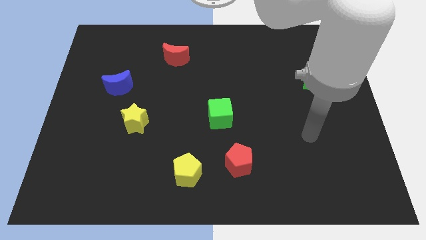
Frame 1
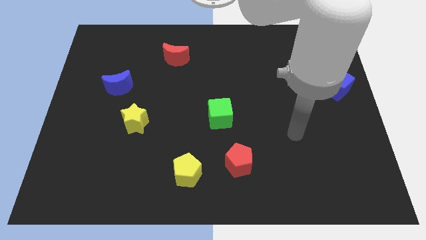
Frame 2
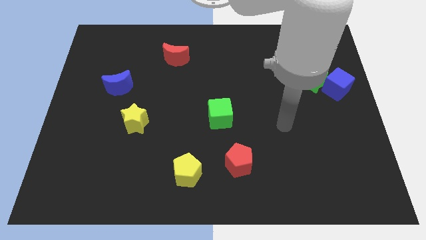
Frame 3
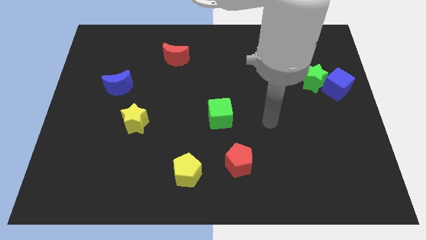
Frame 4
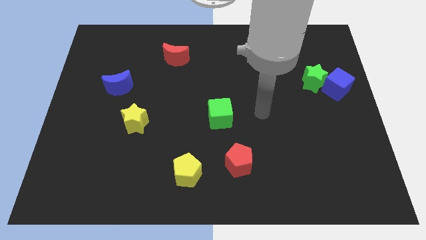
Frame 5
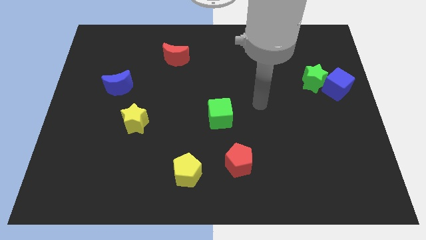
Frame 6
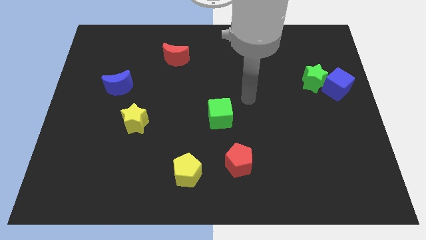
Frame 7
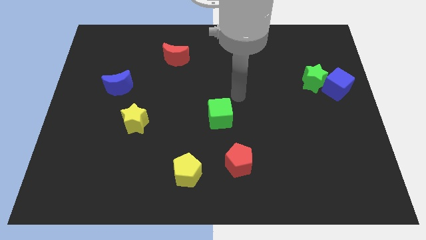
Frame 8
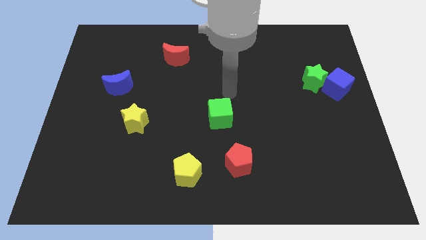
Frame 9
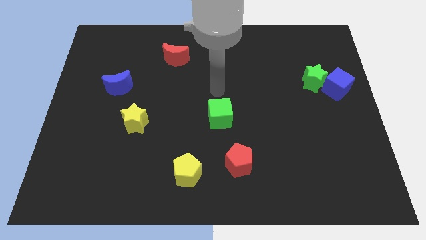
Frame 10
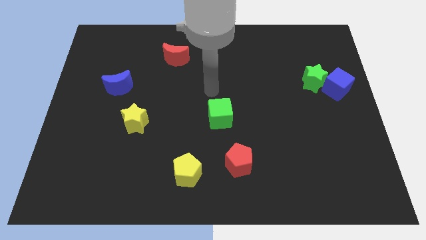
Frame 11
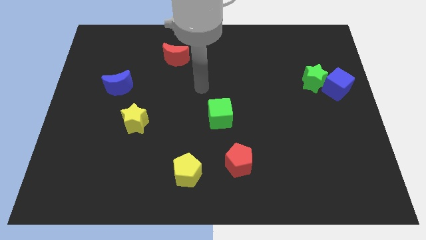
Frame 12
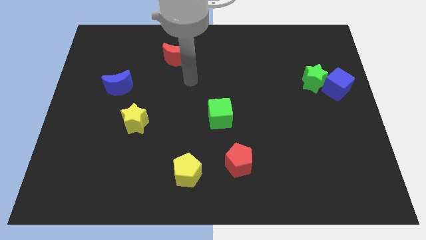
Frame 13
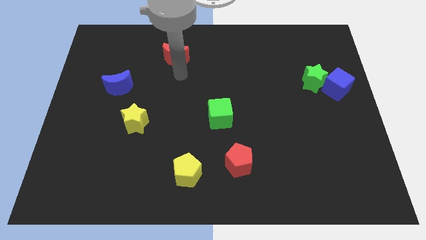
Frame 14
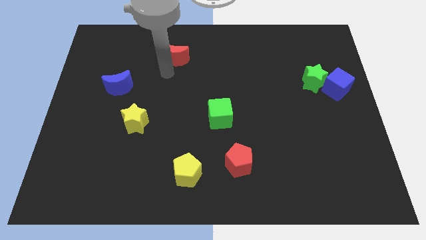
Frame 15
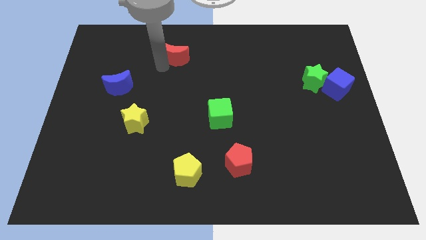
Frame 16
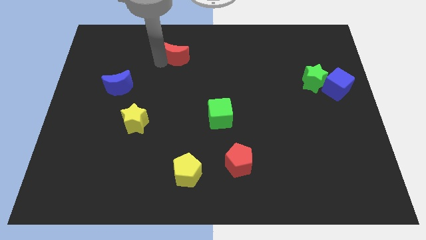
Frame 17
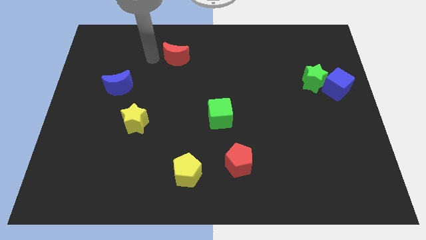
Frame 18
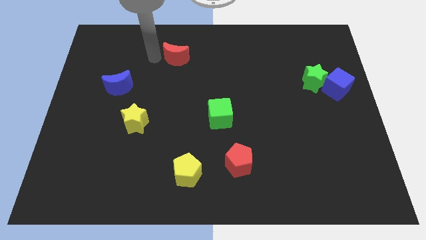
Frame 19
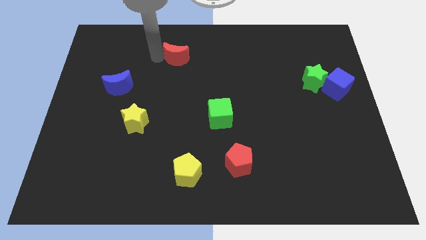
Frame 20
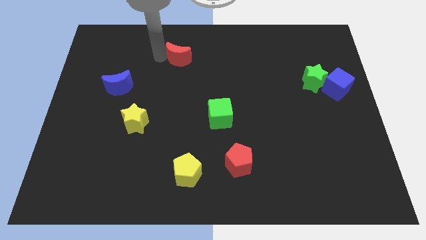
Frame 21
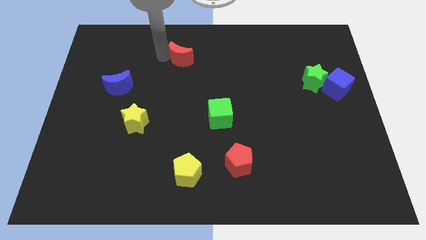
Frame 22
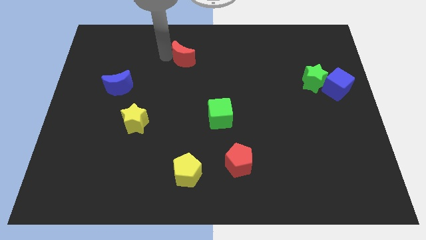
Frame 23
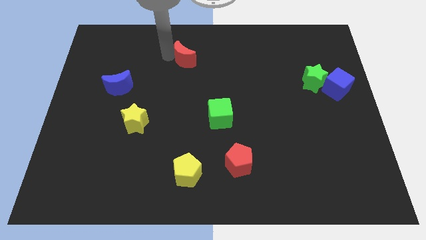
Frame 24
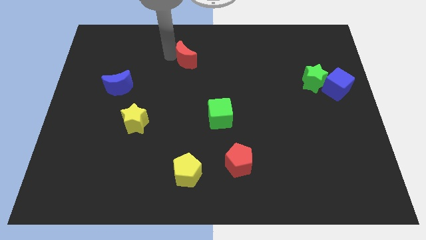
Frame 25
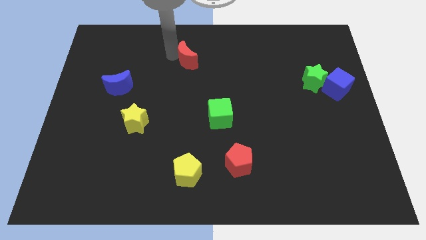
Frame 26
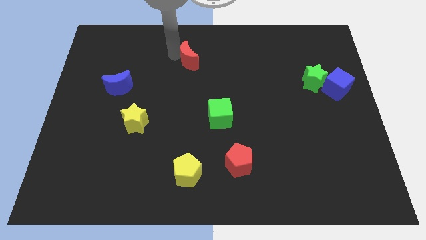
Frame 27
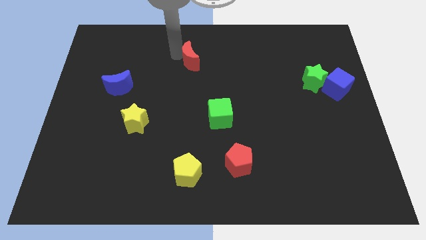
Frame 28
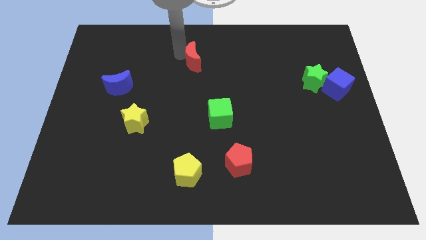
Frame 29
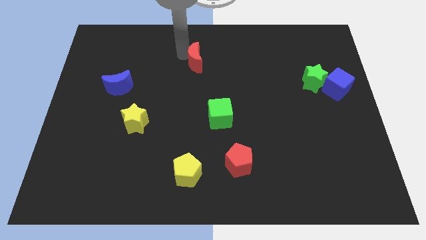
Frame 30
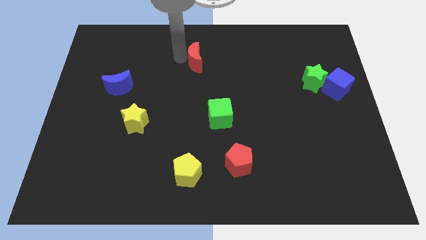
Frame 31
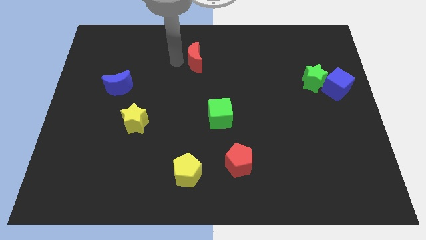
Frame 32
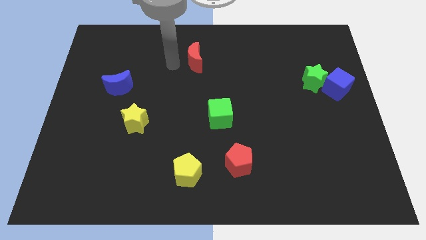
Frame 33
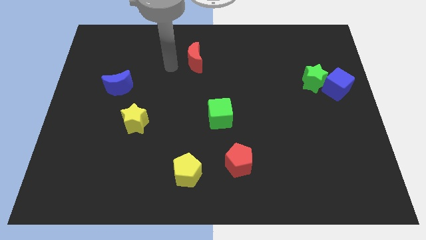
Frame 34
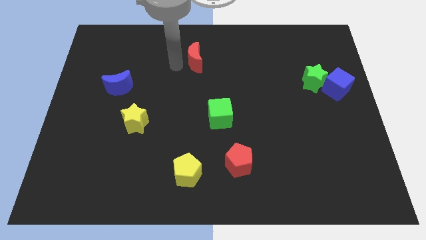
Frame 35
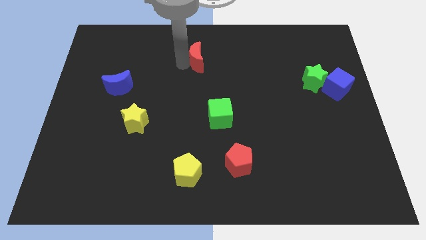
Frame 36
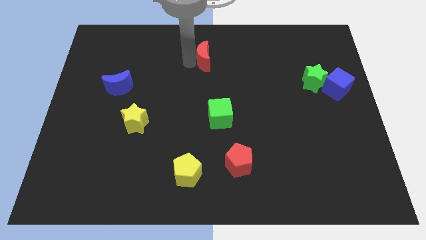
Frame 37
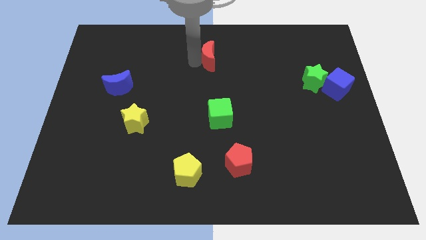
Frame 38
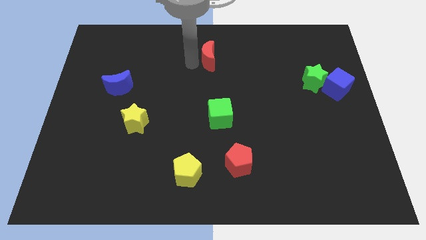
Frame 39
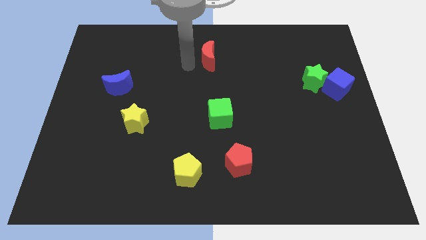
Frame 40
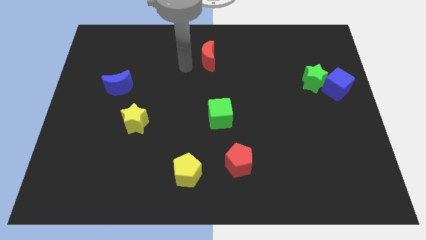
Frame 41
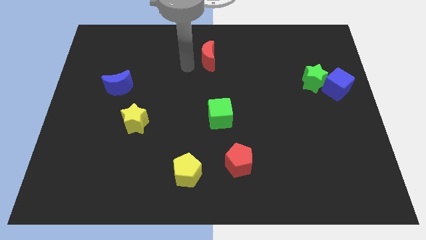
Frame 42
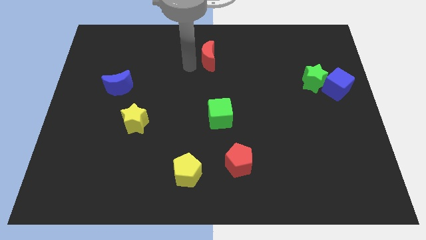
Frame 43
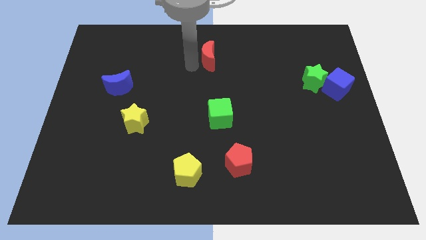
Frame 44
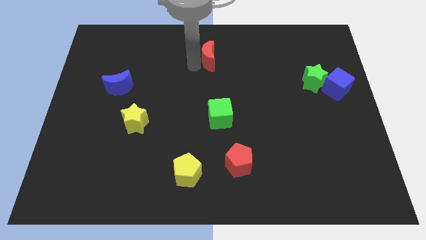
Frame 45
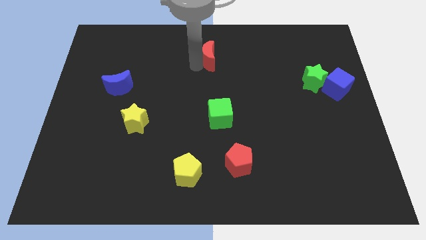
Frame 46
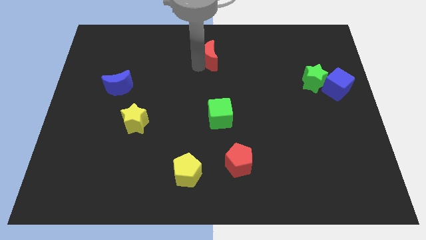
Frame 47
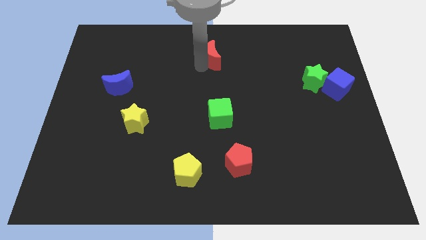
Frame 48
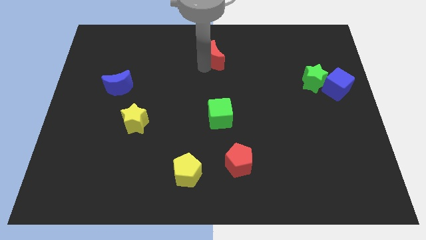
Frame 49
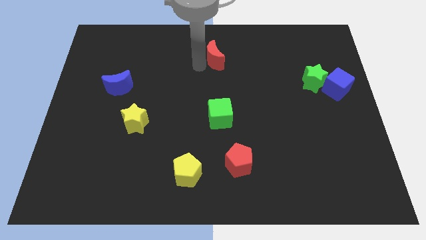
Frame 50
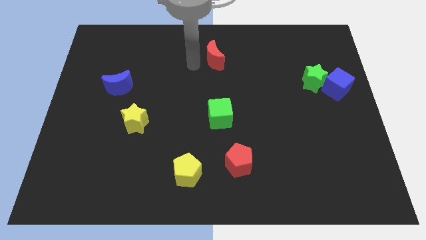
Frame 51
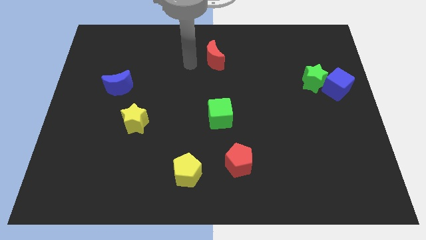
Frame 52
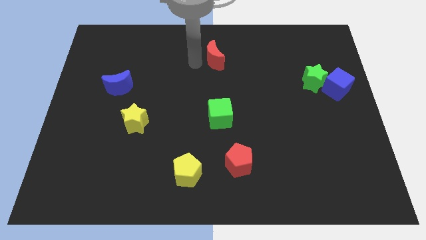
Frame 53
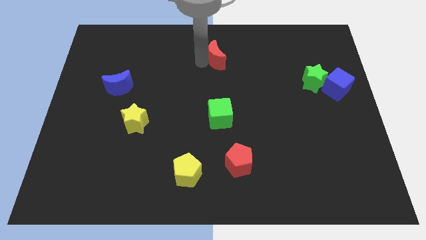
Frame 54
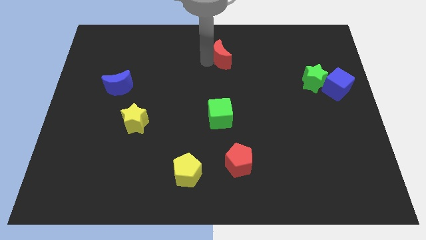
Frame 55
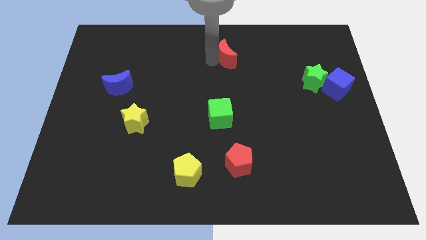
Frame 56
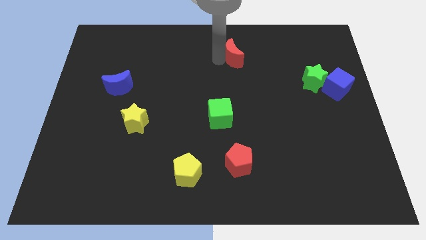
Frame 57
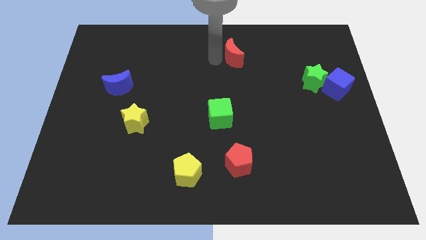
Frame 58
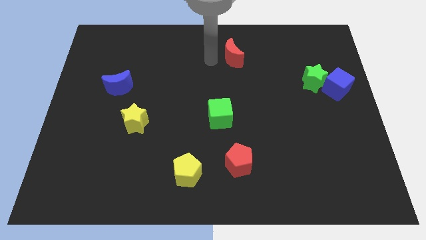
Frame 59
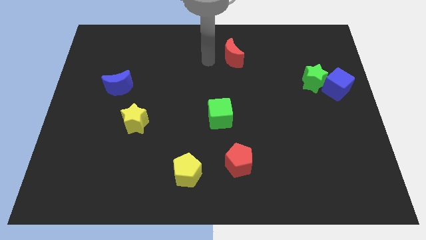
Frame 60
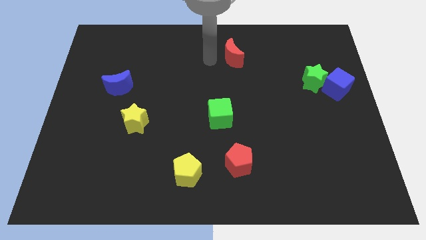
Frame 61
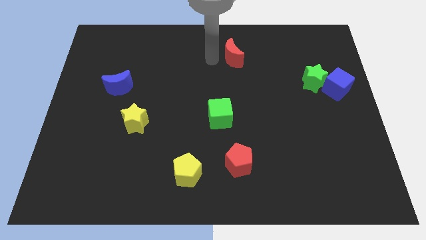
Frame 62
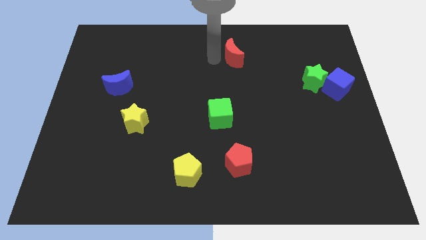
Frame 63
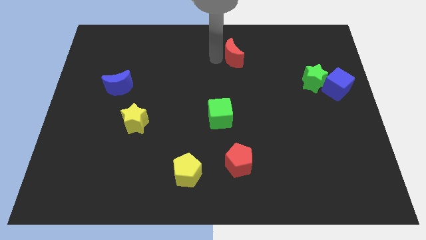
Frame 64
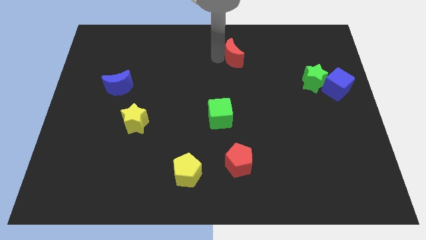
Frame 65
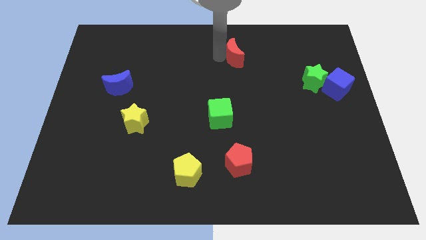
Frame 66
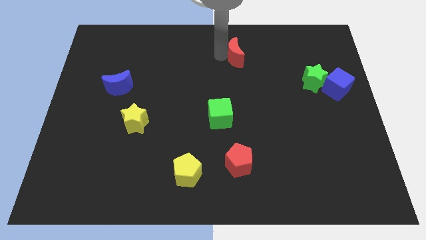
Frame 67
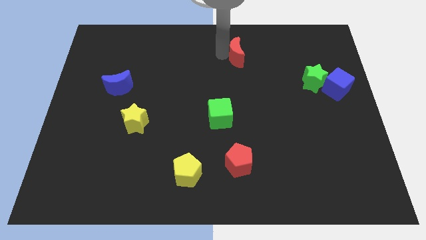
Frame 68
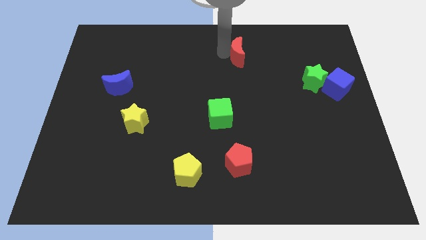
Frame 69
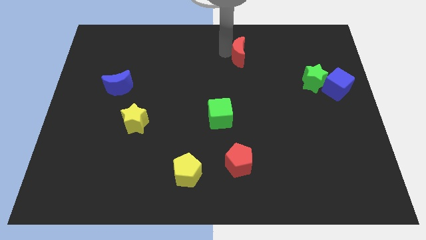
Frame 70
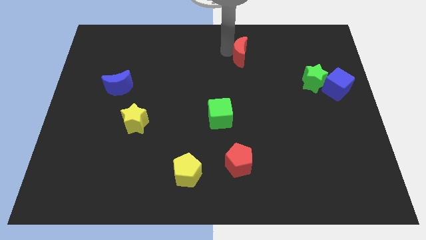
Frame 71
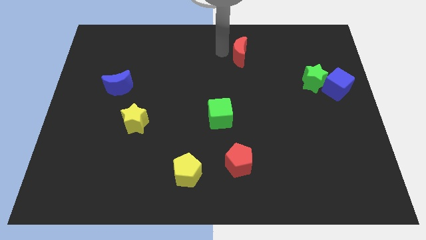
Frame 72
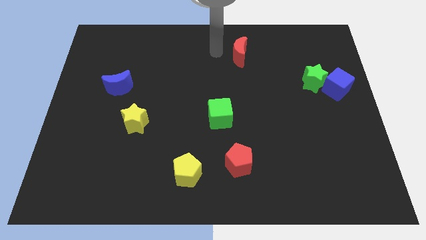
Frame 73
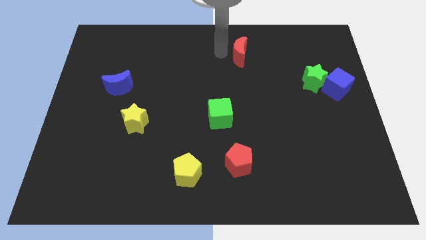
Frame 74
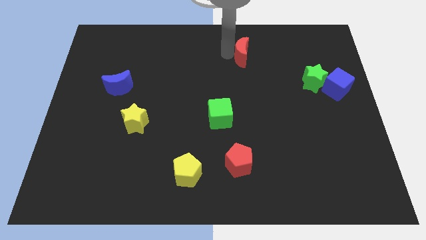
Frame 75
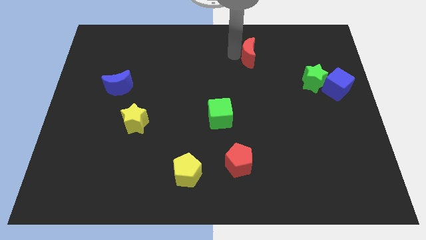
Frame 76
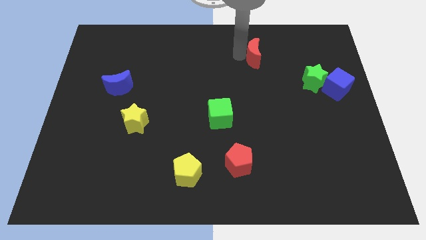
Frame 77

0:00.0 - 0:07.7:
slide the red moon right

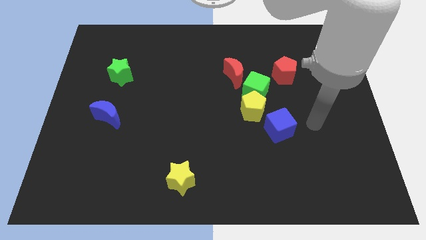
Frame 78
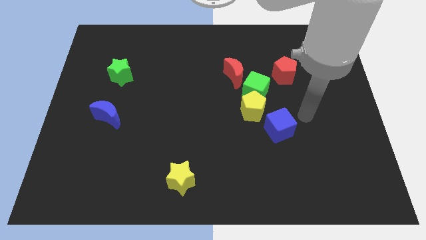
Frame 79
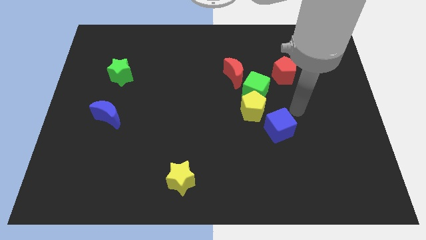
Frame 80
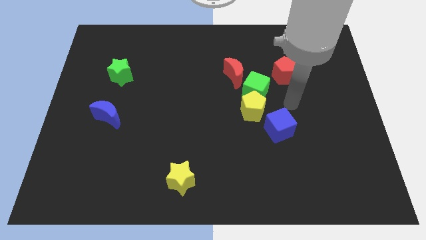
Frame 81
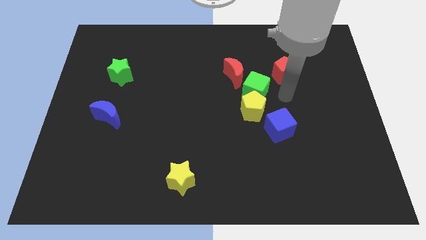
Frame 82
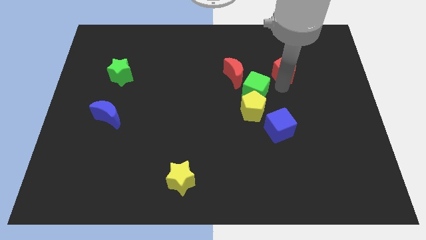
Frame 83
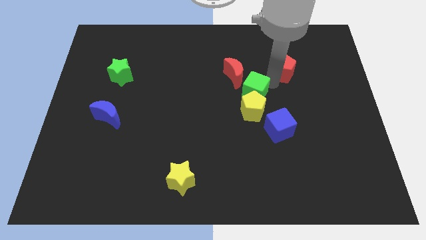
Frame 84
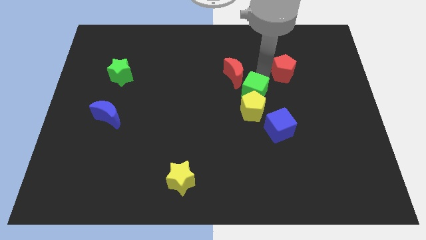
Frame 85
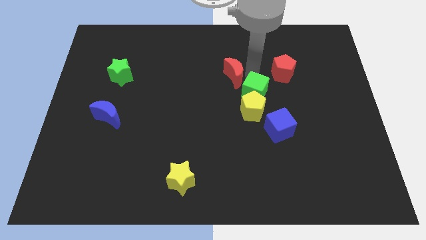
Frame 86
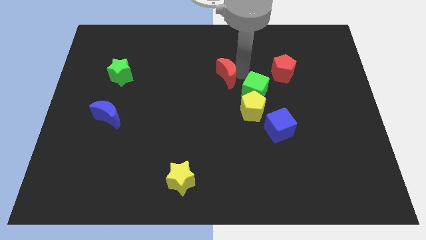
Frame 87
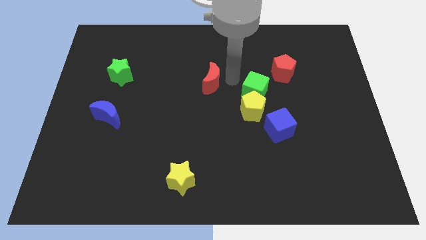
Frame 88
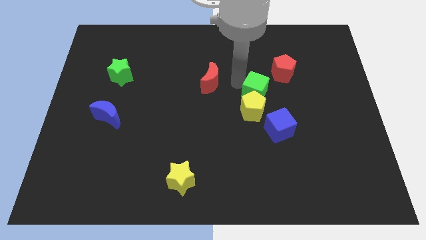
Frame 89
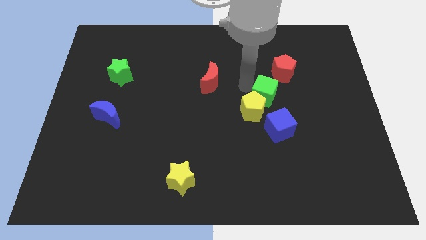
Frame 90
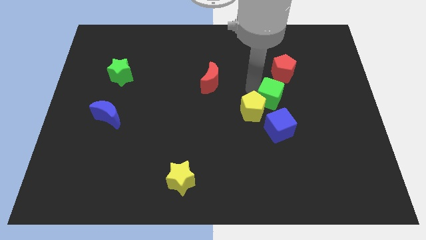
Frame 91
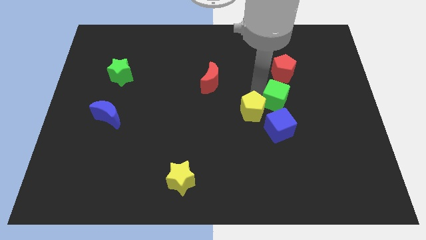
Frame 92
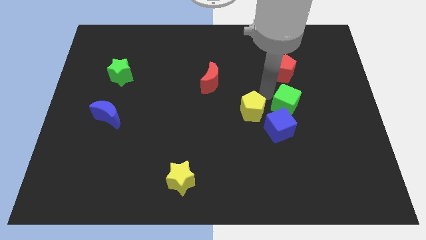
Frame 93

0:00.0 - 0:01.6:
push the green cube down and right diagonally a little
